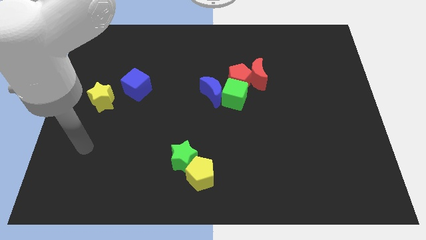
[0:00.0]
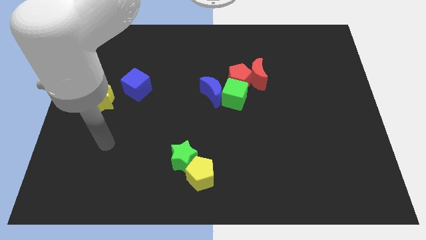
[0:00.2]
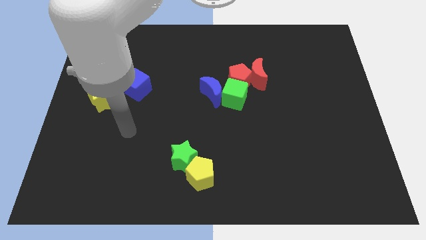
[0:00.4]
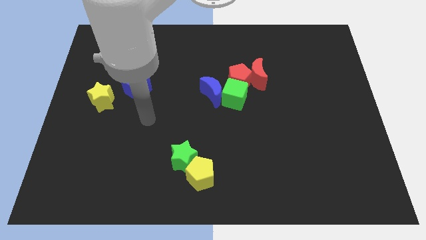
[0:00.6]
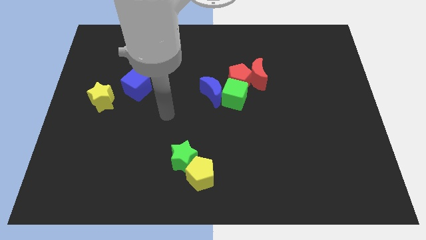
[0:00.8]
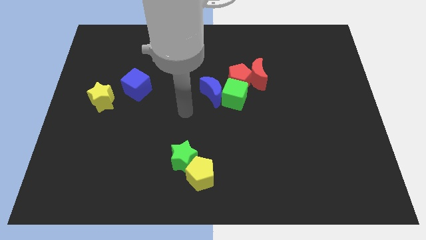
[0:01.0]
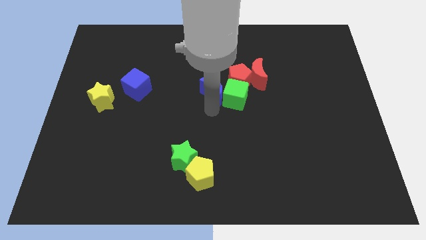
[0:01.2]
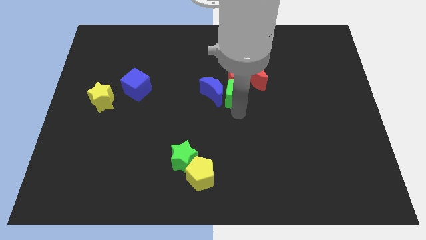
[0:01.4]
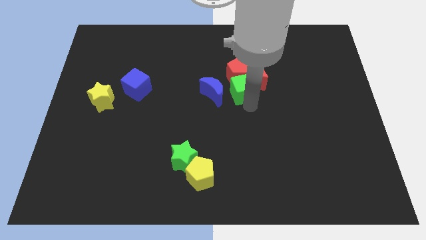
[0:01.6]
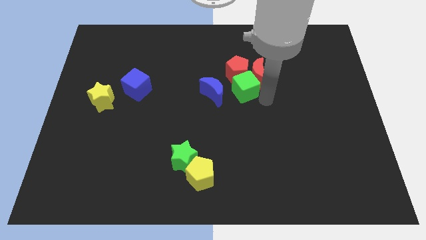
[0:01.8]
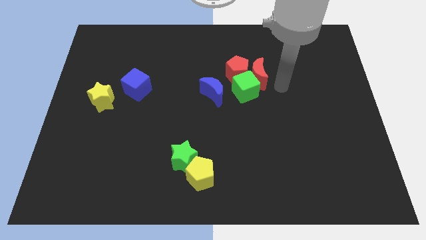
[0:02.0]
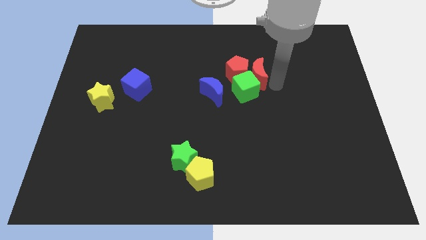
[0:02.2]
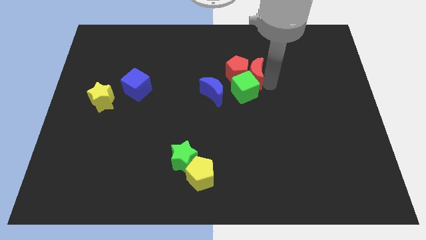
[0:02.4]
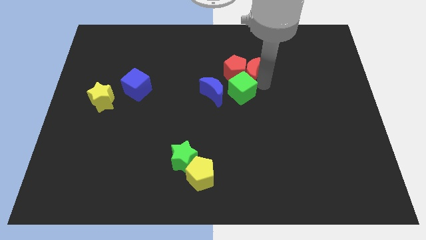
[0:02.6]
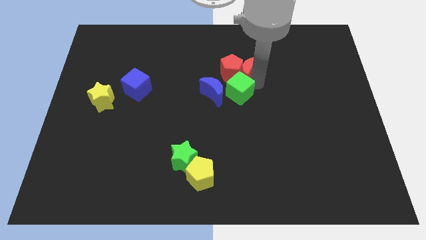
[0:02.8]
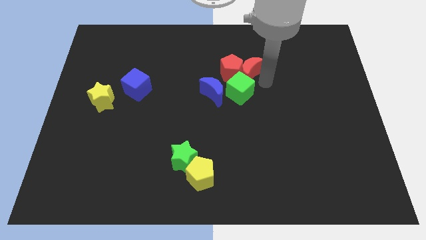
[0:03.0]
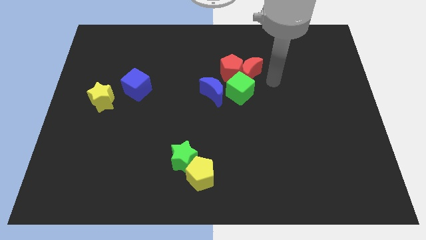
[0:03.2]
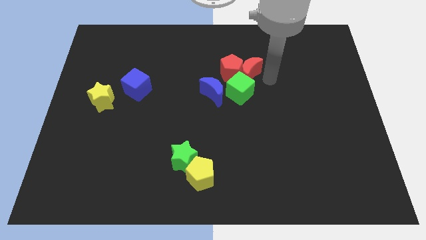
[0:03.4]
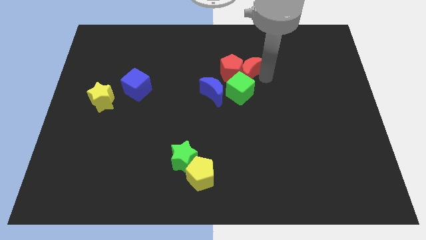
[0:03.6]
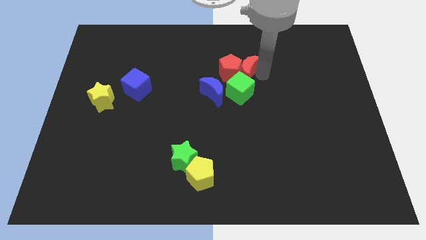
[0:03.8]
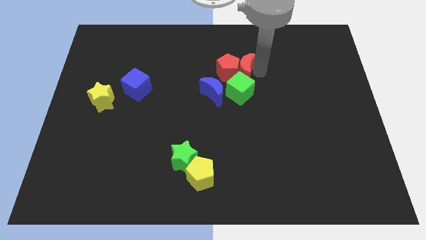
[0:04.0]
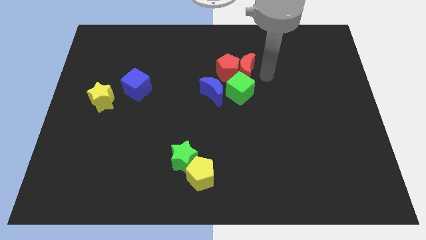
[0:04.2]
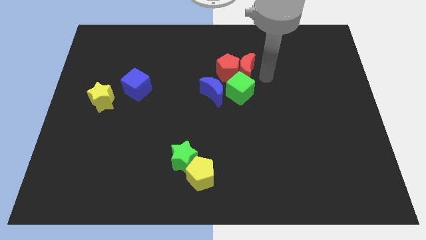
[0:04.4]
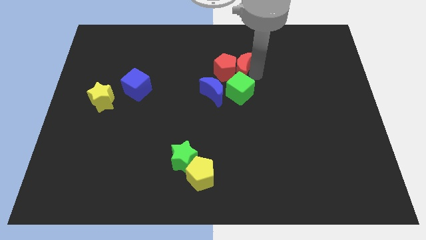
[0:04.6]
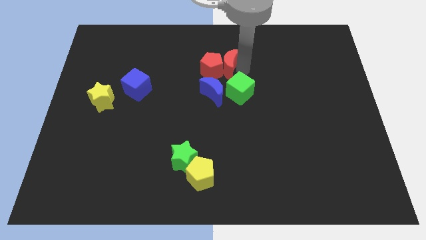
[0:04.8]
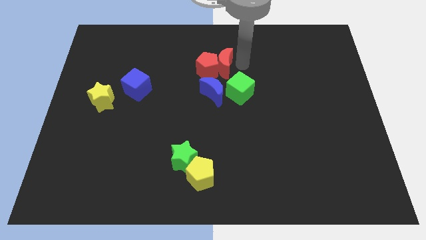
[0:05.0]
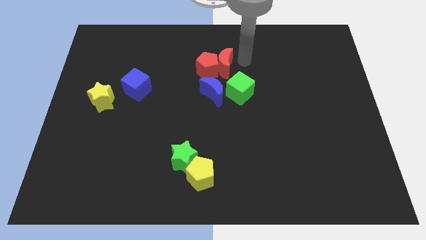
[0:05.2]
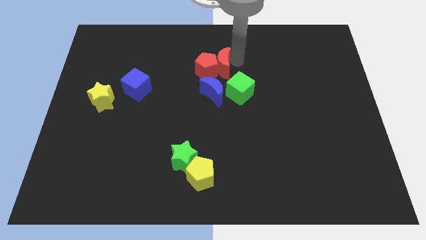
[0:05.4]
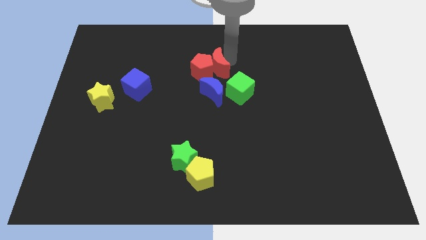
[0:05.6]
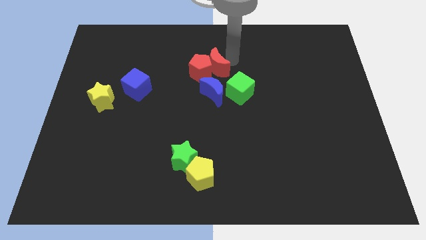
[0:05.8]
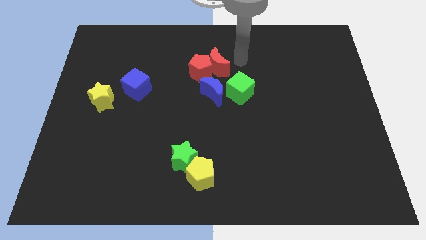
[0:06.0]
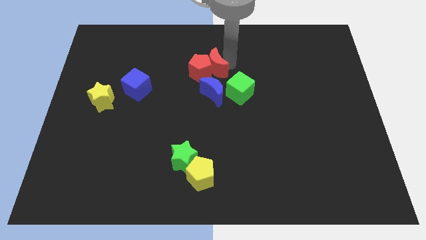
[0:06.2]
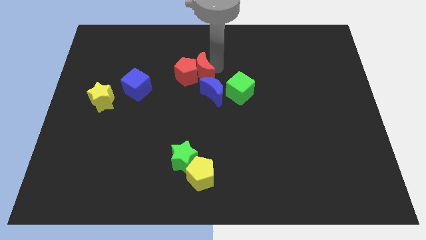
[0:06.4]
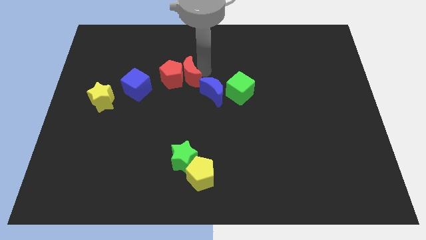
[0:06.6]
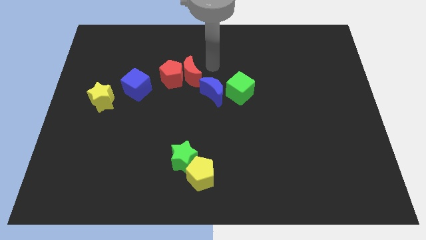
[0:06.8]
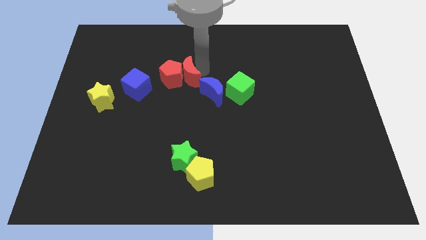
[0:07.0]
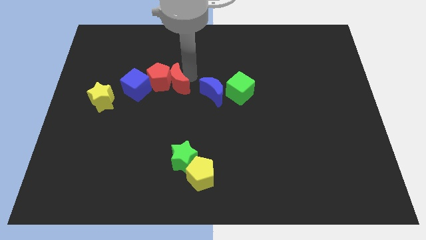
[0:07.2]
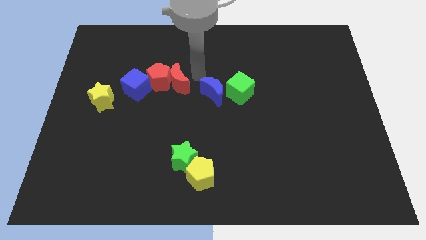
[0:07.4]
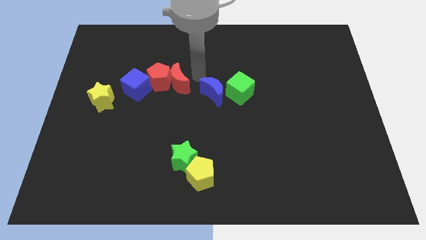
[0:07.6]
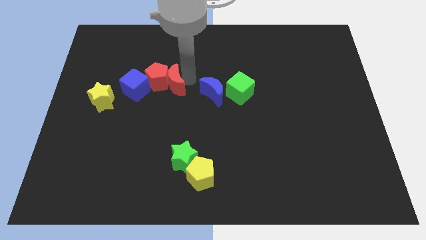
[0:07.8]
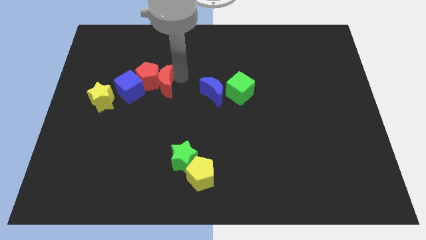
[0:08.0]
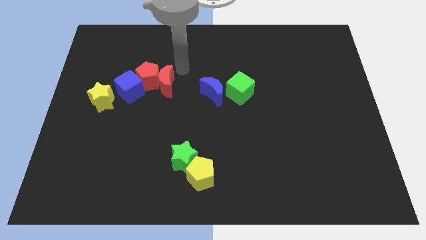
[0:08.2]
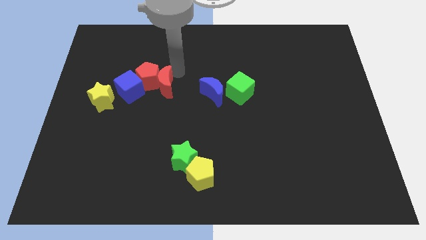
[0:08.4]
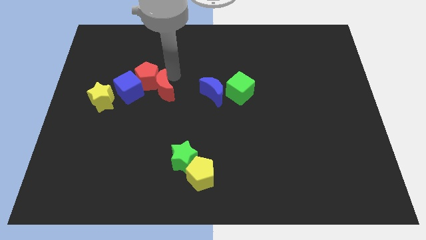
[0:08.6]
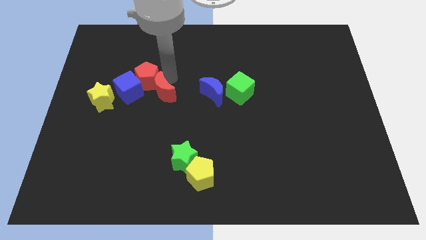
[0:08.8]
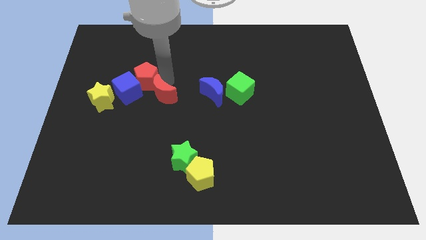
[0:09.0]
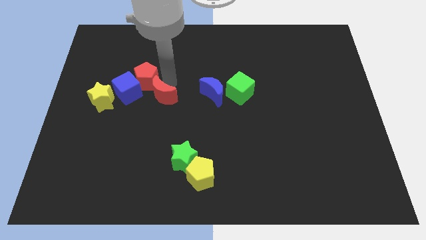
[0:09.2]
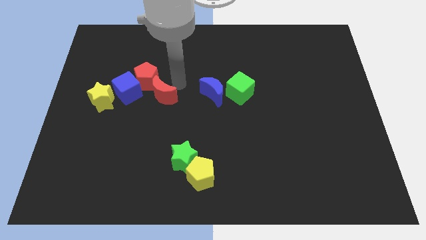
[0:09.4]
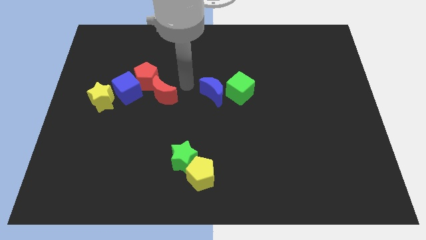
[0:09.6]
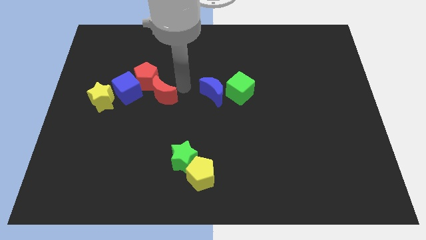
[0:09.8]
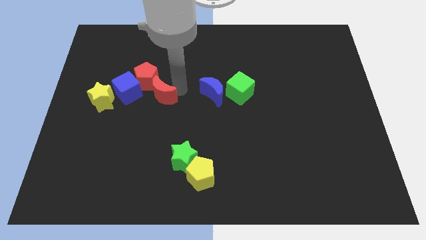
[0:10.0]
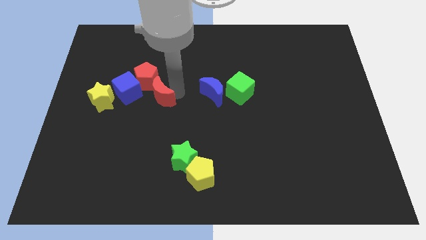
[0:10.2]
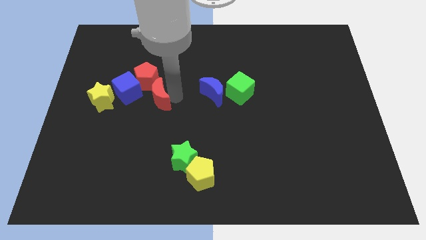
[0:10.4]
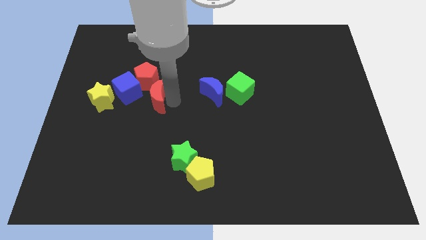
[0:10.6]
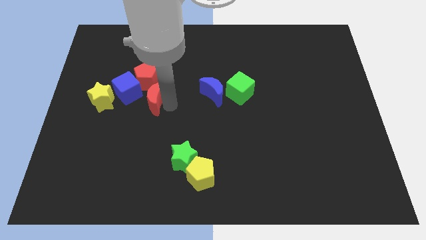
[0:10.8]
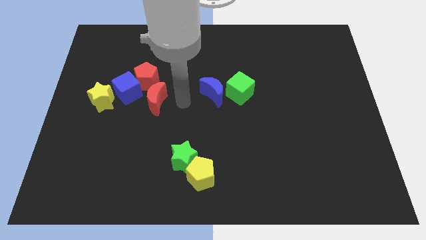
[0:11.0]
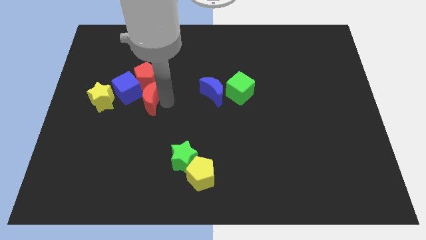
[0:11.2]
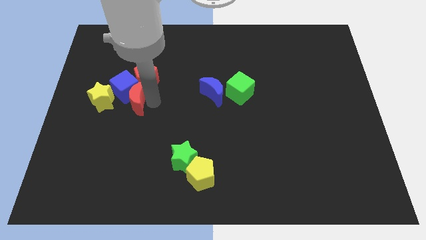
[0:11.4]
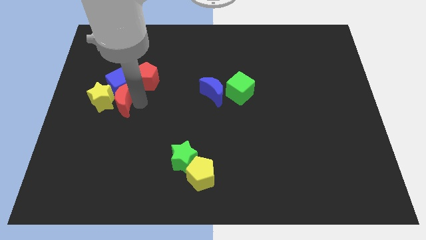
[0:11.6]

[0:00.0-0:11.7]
move the red moon to the yellow star

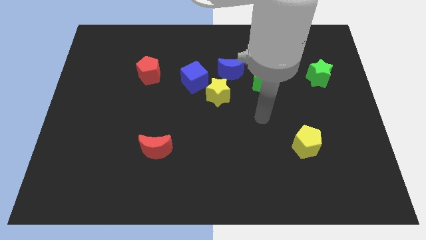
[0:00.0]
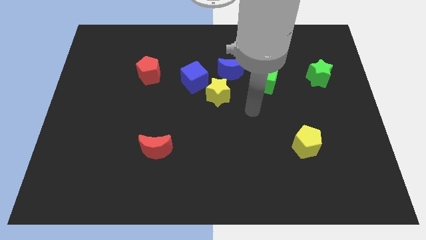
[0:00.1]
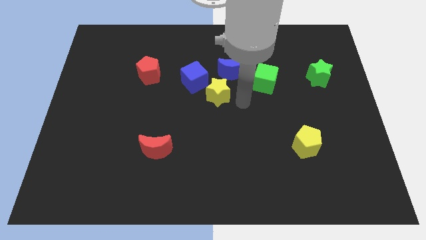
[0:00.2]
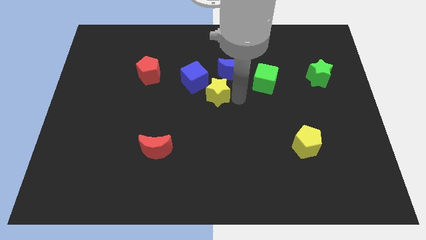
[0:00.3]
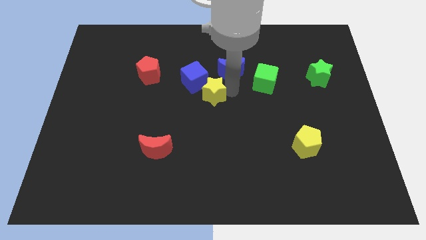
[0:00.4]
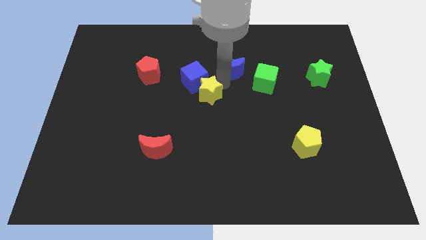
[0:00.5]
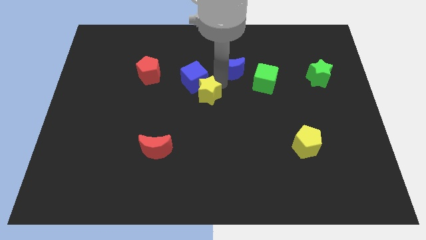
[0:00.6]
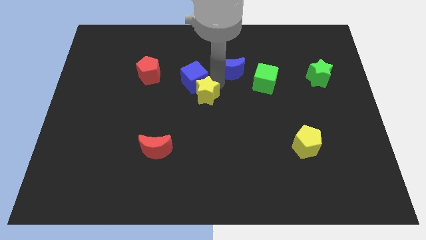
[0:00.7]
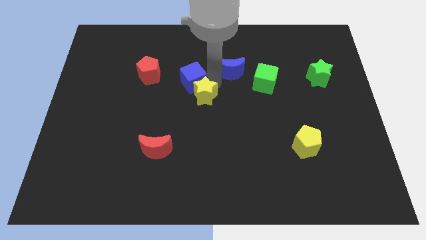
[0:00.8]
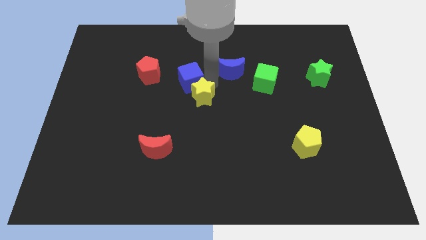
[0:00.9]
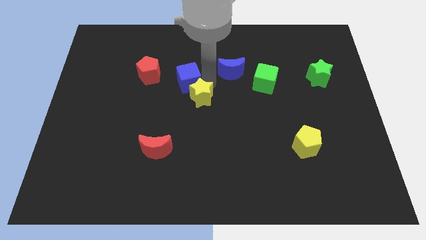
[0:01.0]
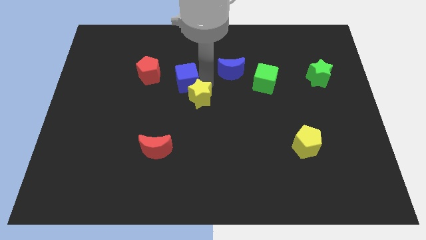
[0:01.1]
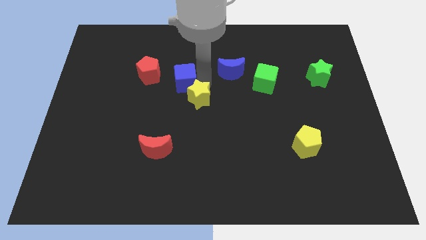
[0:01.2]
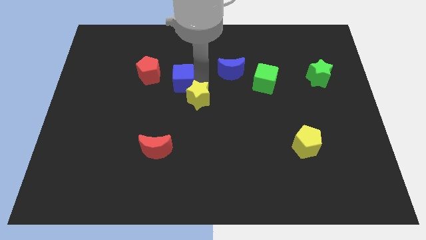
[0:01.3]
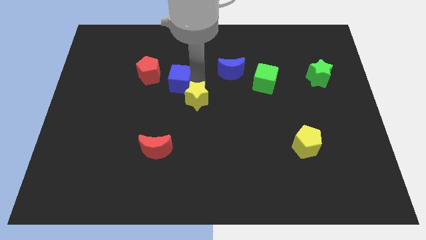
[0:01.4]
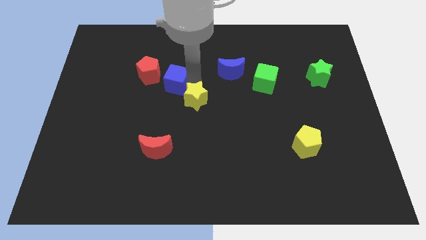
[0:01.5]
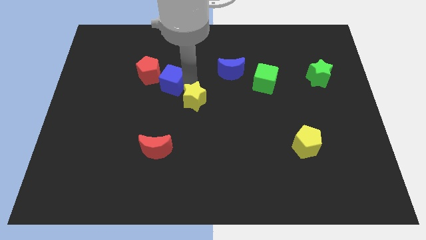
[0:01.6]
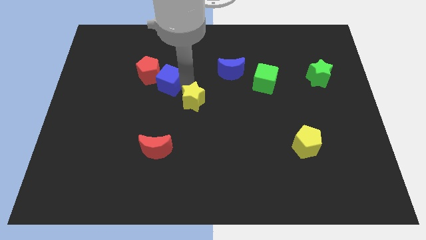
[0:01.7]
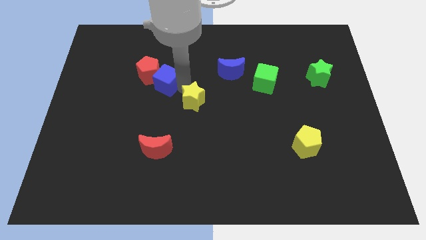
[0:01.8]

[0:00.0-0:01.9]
put the blue cube close to the red pentagon
